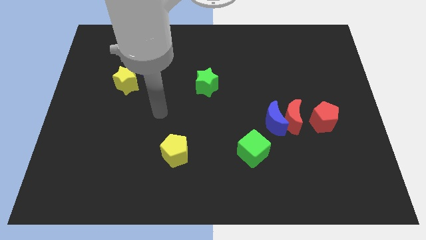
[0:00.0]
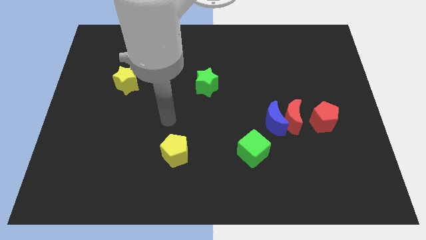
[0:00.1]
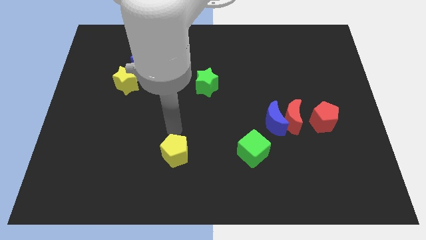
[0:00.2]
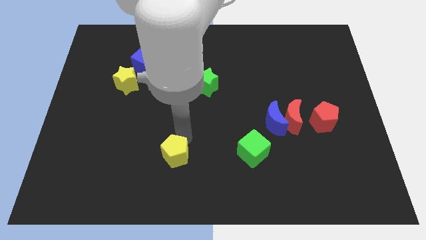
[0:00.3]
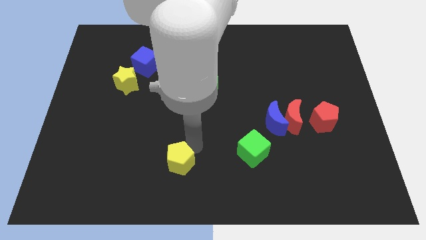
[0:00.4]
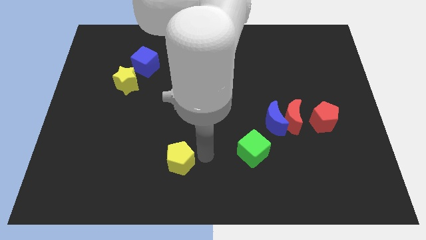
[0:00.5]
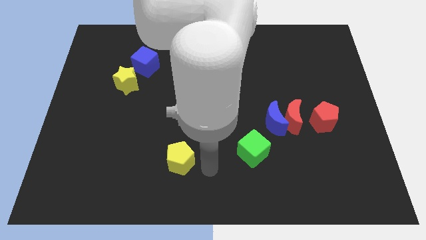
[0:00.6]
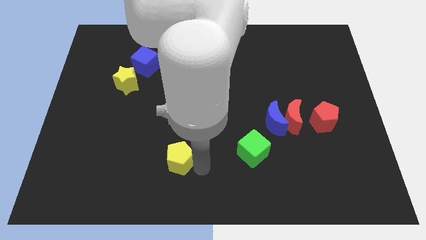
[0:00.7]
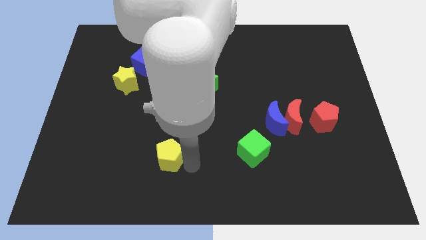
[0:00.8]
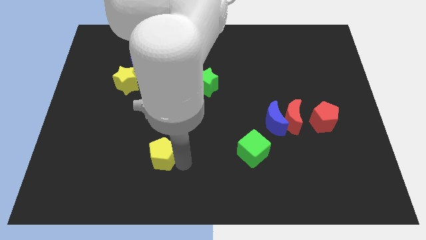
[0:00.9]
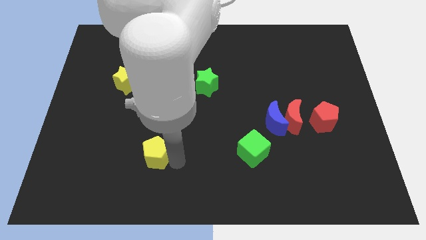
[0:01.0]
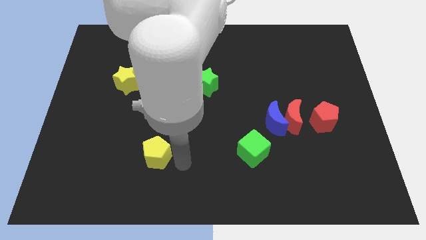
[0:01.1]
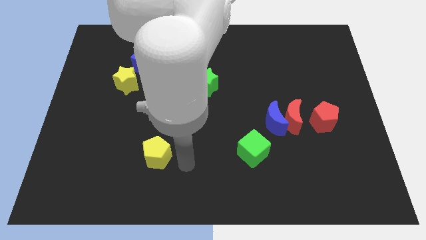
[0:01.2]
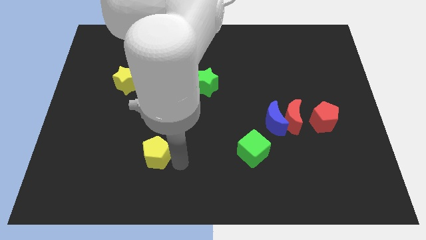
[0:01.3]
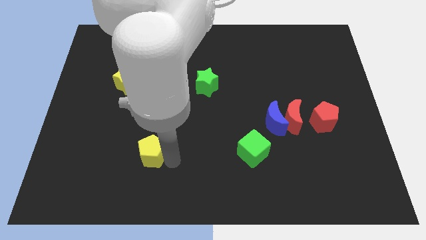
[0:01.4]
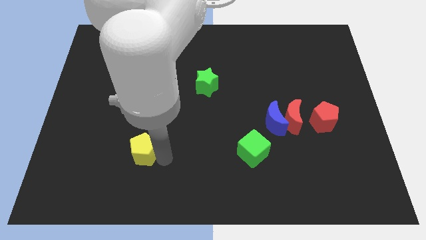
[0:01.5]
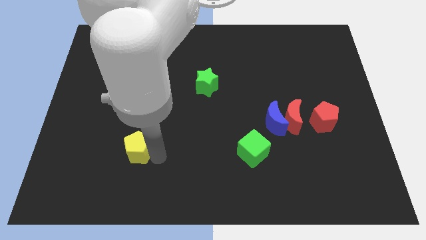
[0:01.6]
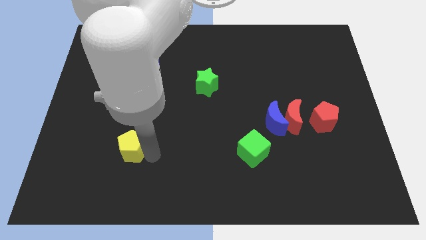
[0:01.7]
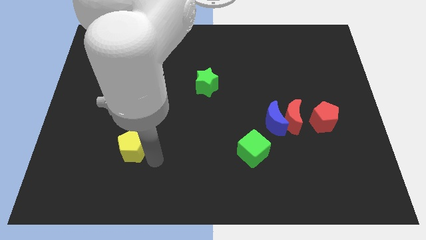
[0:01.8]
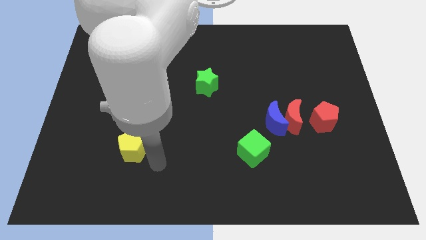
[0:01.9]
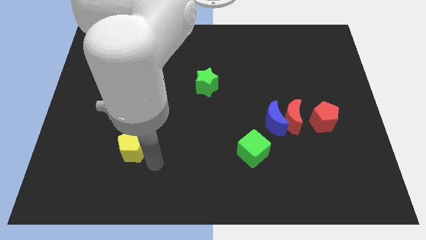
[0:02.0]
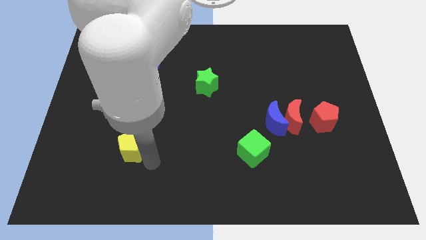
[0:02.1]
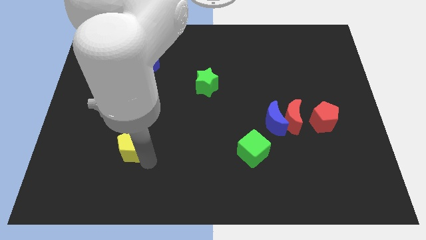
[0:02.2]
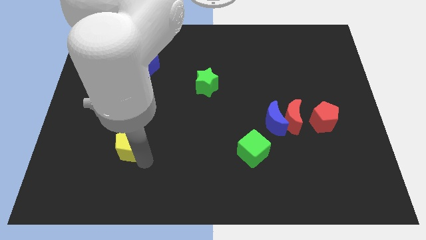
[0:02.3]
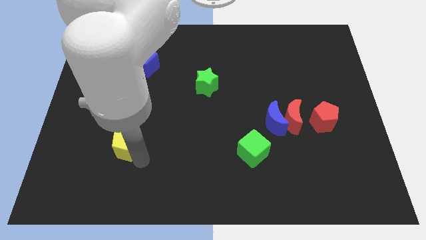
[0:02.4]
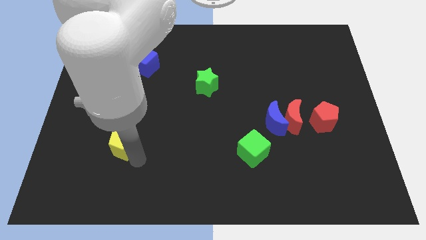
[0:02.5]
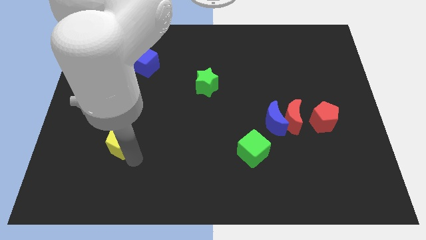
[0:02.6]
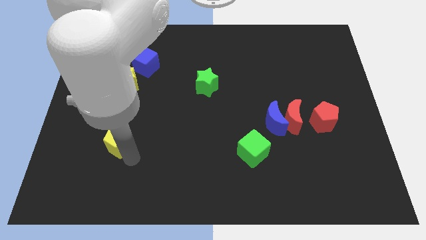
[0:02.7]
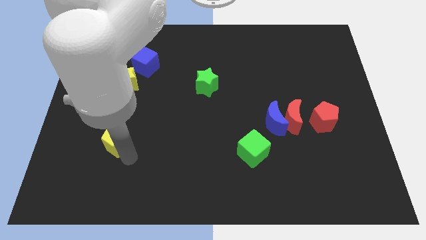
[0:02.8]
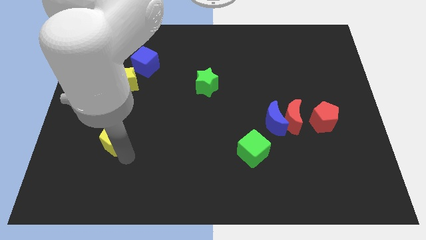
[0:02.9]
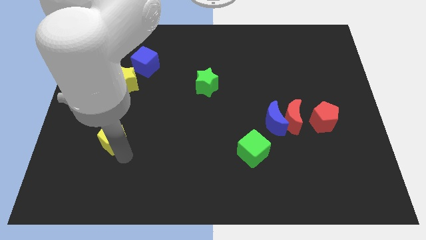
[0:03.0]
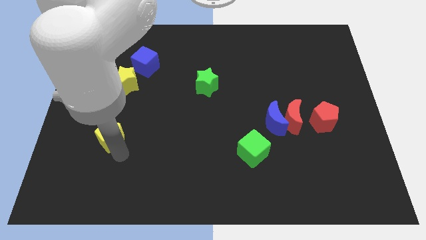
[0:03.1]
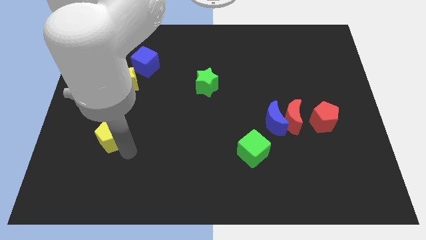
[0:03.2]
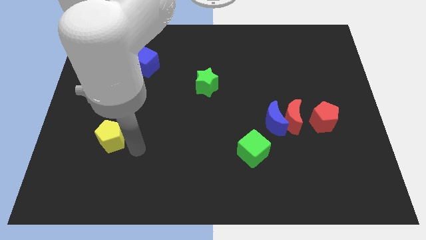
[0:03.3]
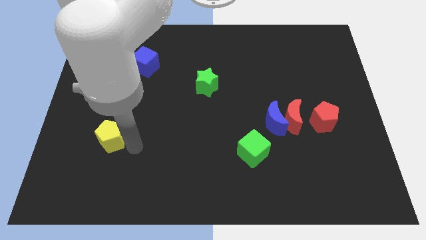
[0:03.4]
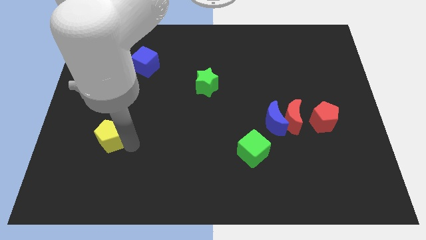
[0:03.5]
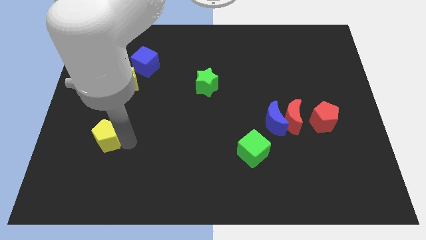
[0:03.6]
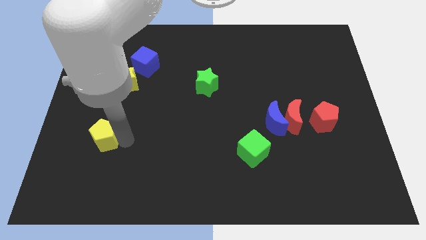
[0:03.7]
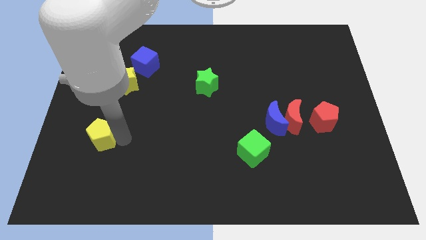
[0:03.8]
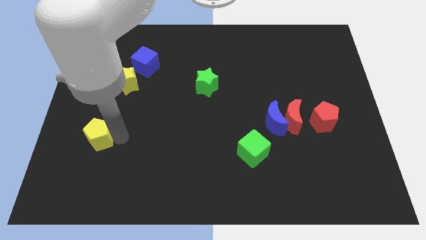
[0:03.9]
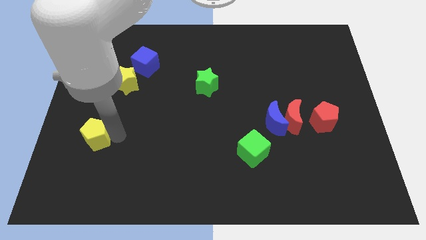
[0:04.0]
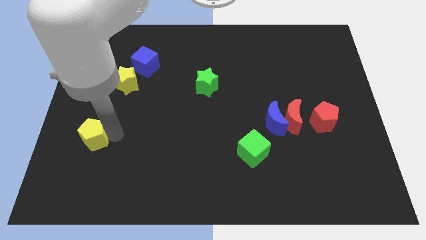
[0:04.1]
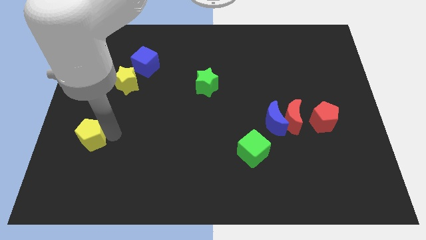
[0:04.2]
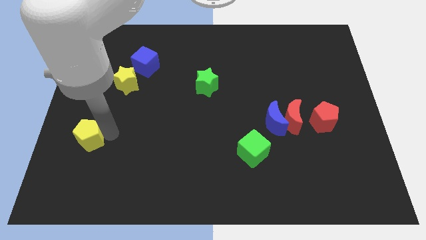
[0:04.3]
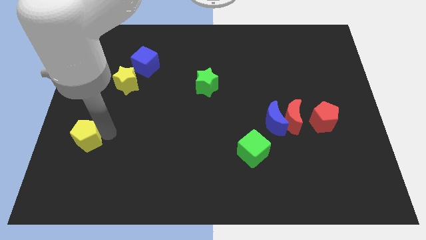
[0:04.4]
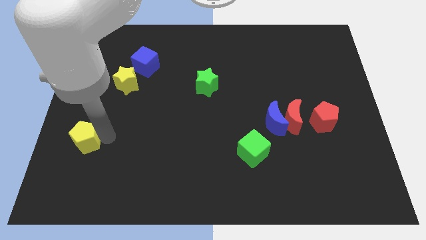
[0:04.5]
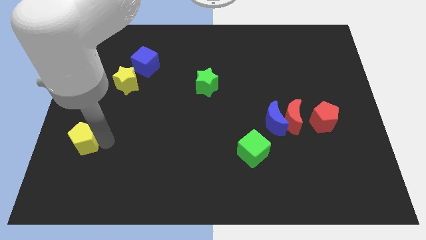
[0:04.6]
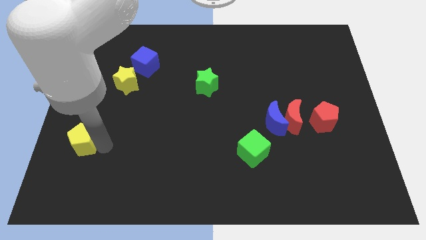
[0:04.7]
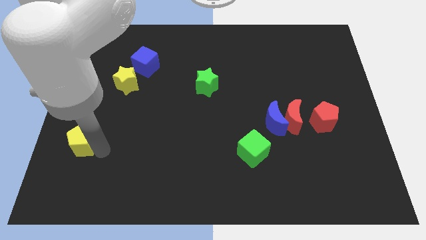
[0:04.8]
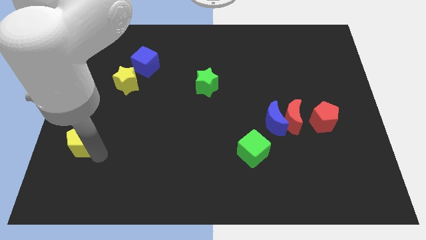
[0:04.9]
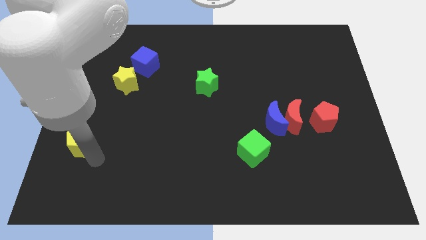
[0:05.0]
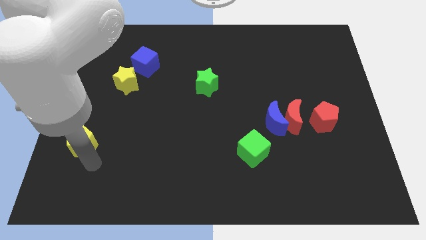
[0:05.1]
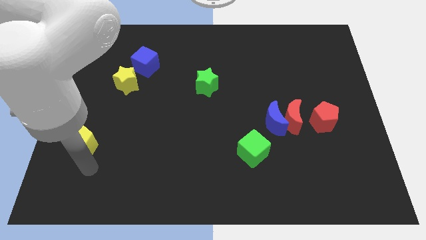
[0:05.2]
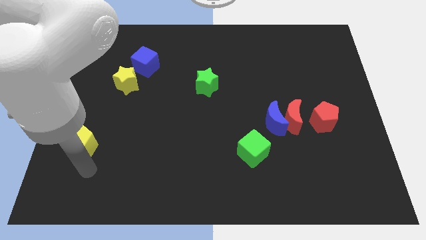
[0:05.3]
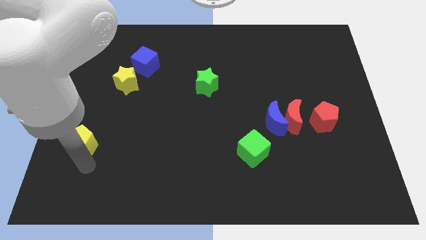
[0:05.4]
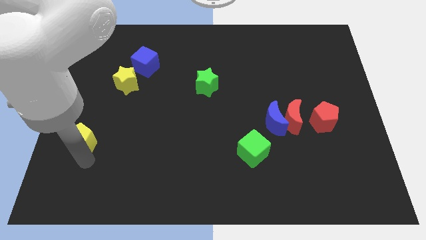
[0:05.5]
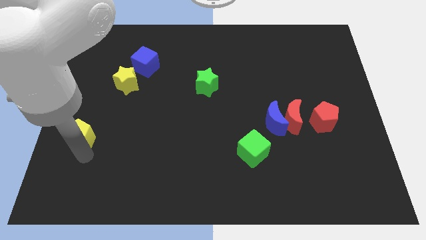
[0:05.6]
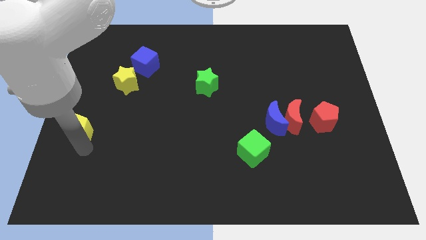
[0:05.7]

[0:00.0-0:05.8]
put the yellow pentagon to the left side

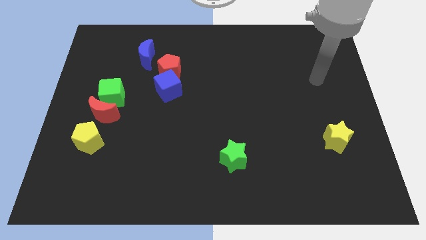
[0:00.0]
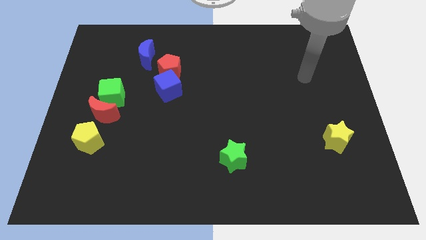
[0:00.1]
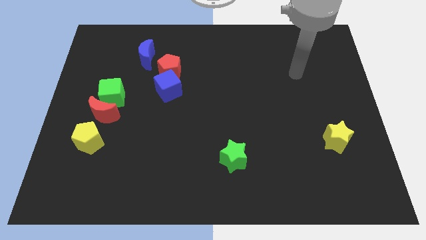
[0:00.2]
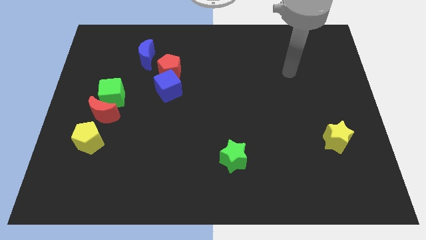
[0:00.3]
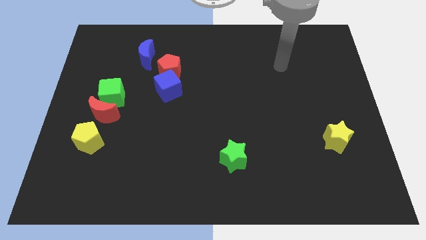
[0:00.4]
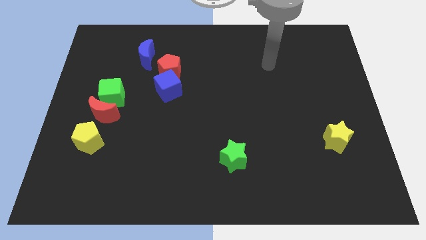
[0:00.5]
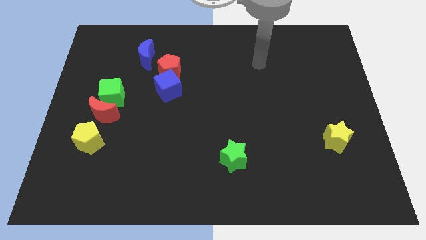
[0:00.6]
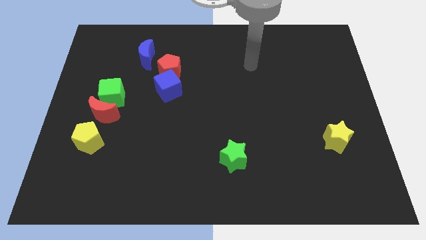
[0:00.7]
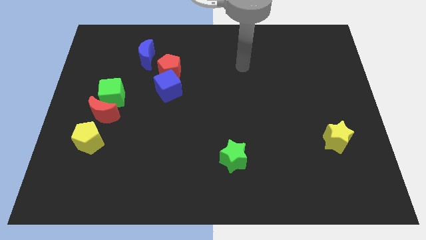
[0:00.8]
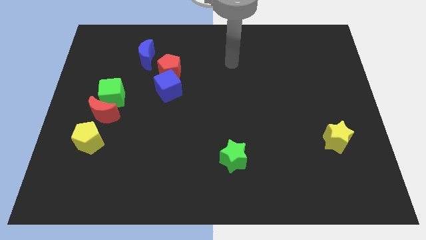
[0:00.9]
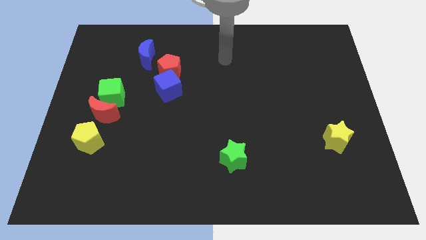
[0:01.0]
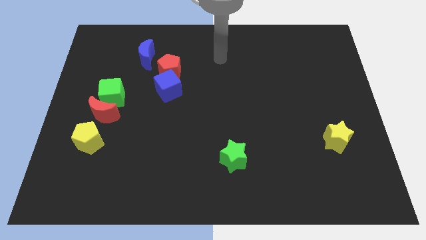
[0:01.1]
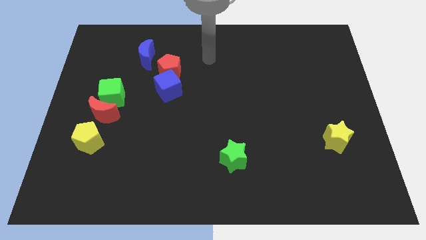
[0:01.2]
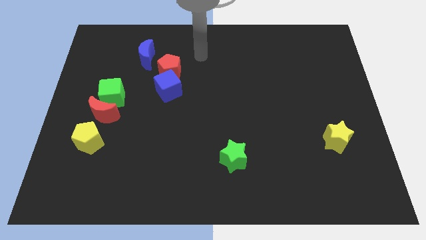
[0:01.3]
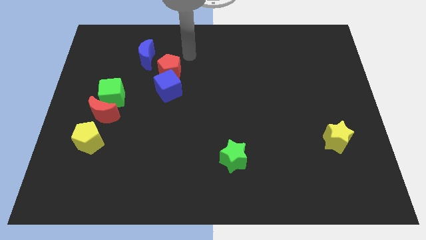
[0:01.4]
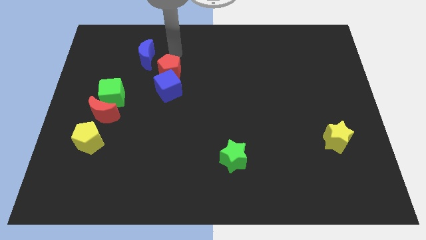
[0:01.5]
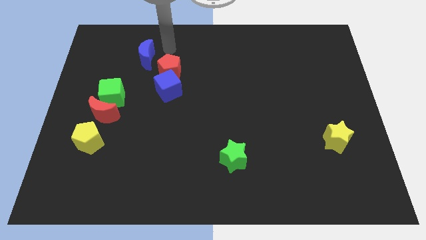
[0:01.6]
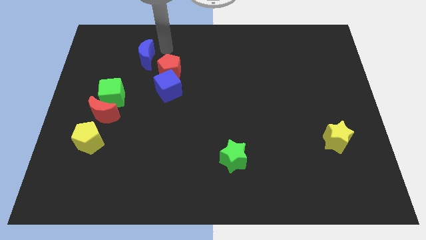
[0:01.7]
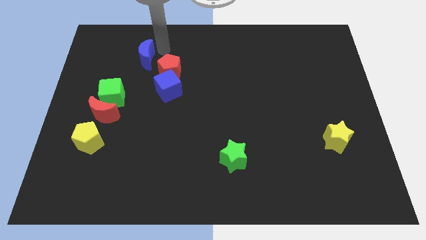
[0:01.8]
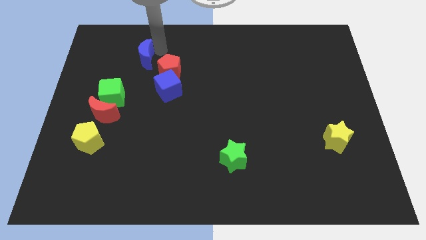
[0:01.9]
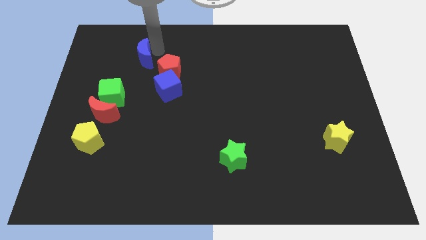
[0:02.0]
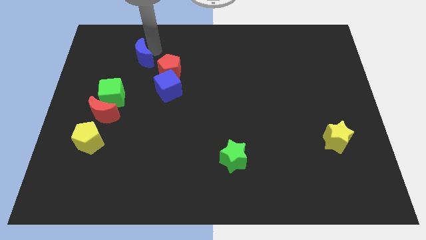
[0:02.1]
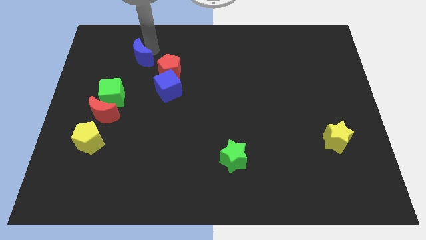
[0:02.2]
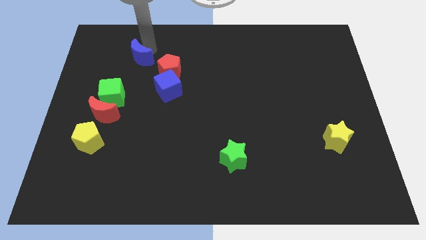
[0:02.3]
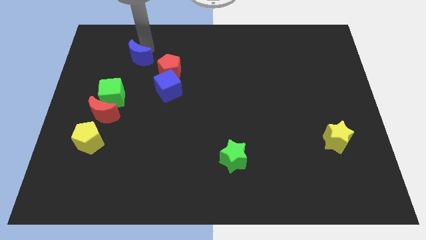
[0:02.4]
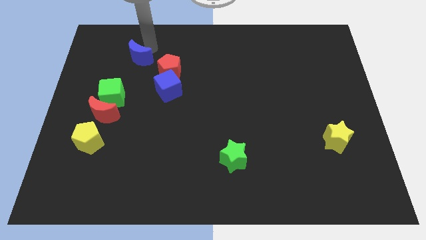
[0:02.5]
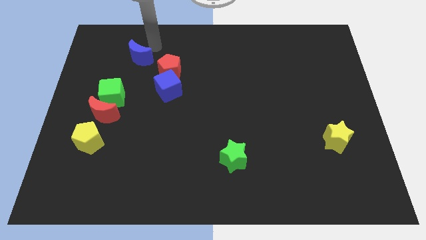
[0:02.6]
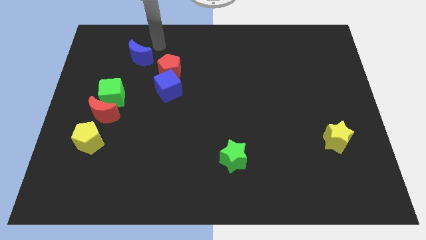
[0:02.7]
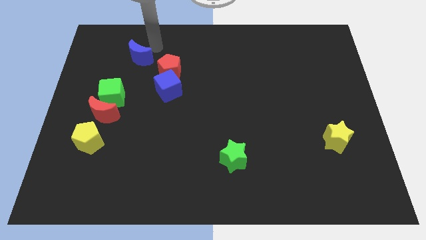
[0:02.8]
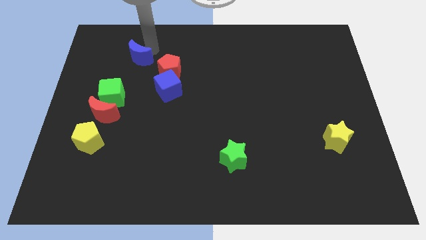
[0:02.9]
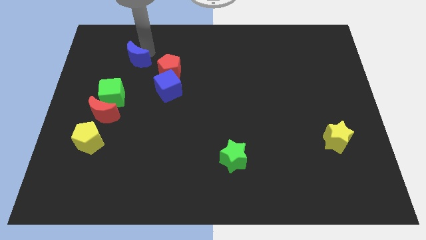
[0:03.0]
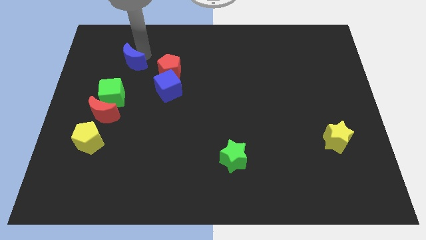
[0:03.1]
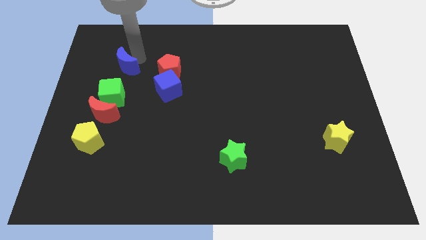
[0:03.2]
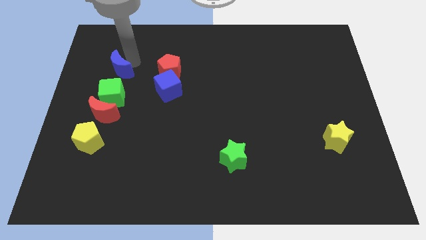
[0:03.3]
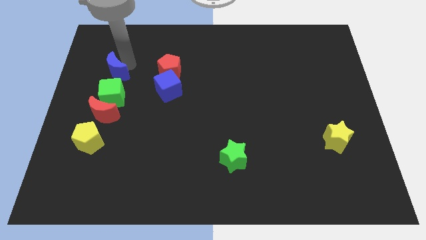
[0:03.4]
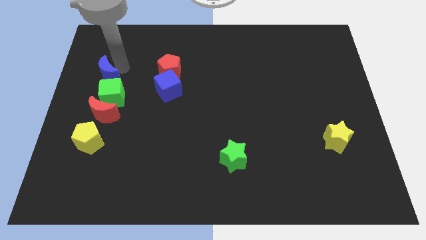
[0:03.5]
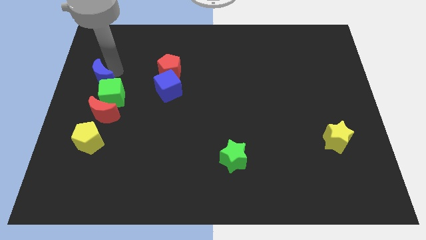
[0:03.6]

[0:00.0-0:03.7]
push the blue moon to the left side of the board
